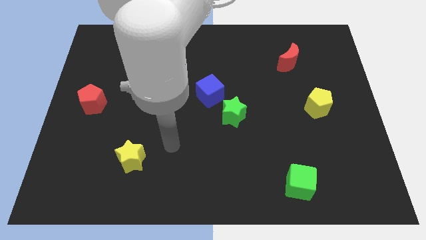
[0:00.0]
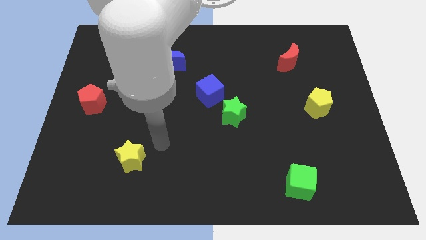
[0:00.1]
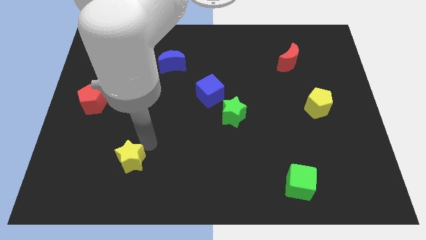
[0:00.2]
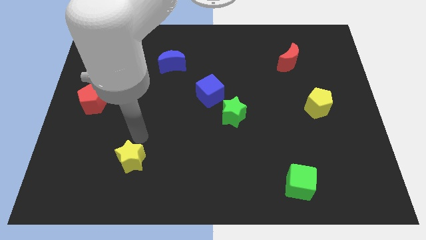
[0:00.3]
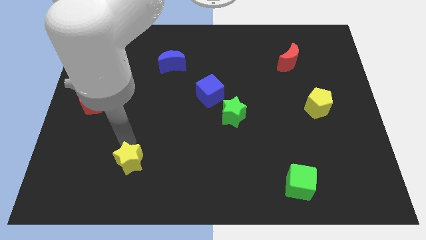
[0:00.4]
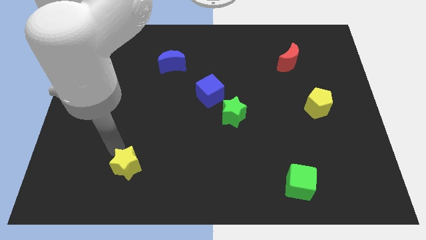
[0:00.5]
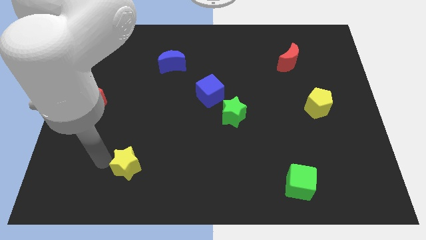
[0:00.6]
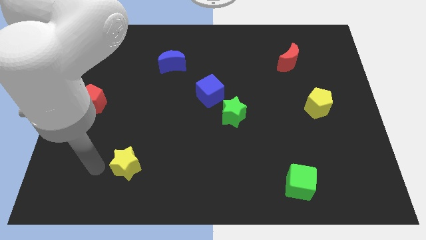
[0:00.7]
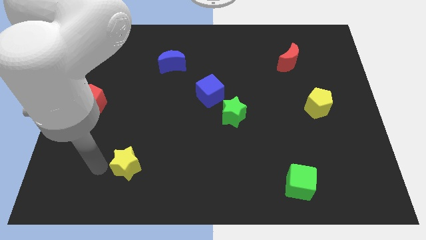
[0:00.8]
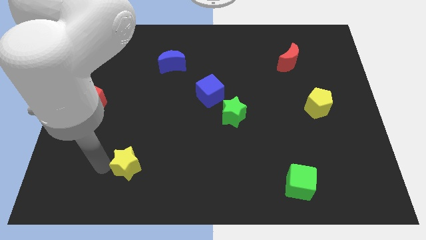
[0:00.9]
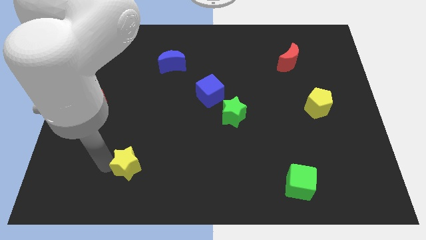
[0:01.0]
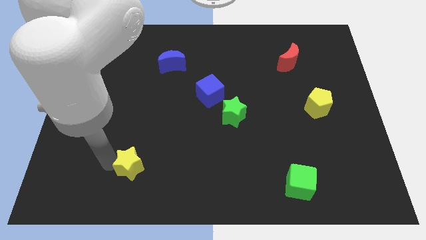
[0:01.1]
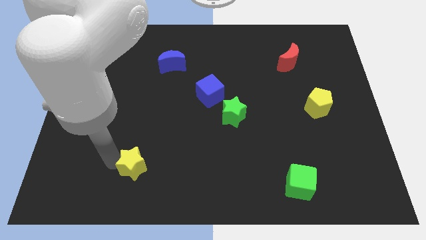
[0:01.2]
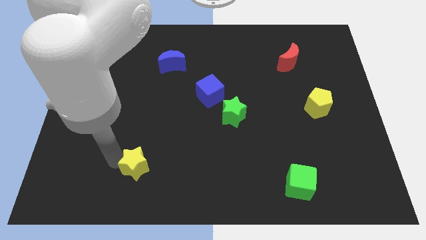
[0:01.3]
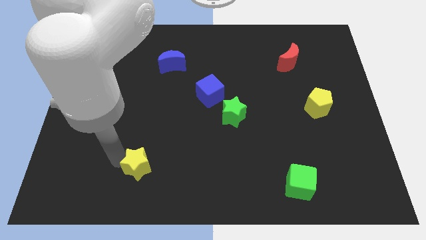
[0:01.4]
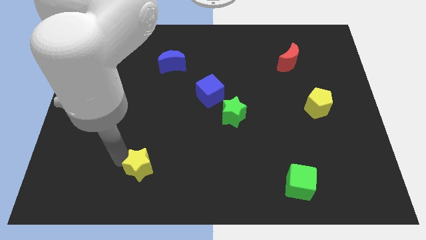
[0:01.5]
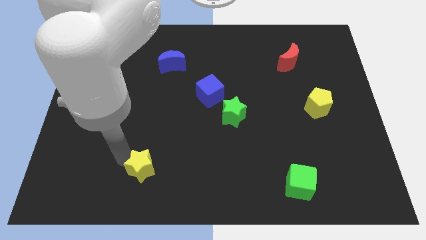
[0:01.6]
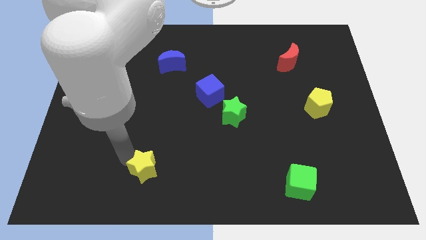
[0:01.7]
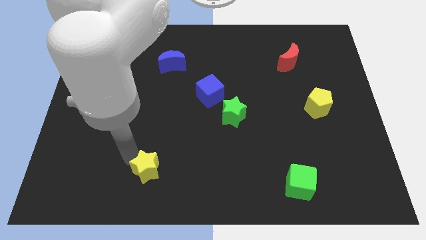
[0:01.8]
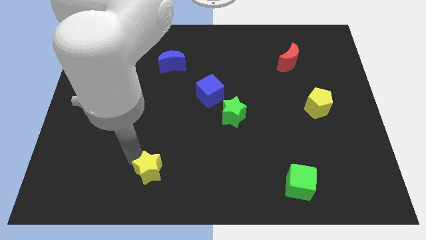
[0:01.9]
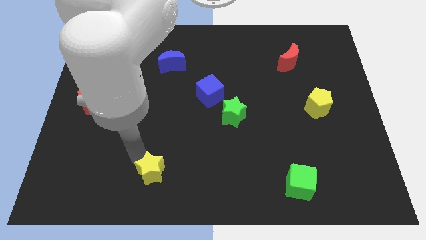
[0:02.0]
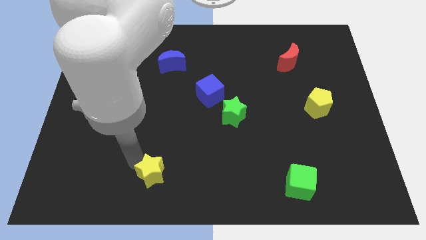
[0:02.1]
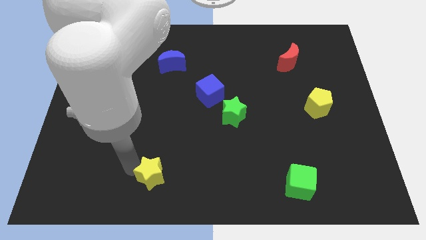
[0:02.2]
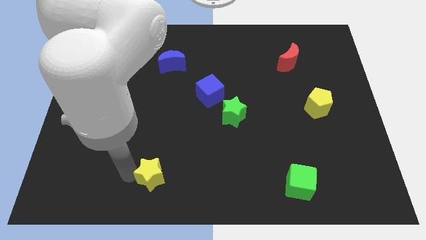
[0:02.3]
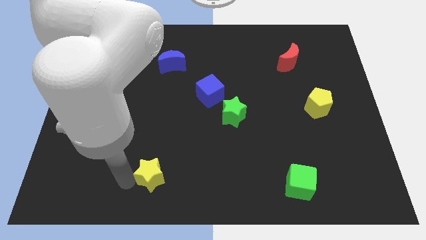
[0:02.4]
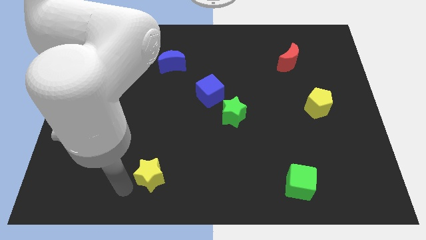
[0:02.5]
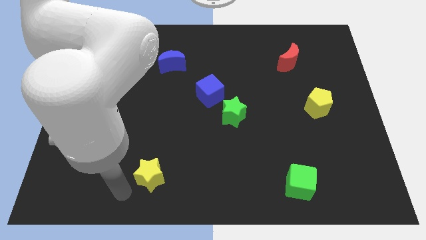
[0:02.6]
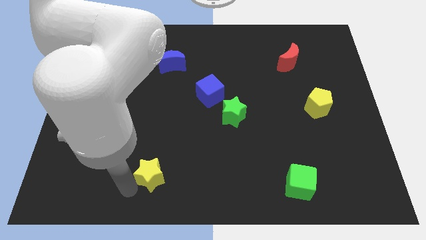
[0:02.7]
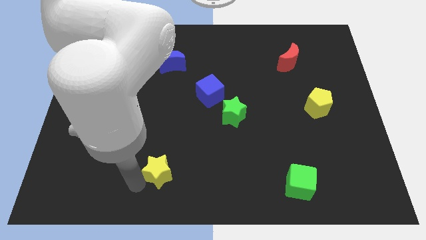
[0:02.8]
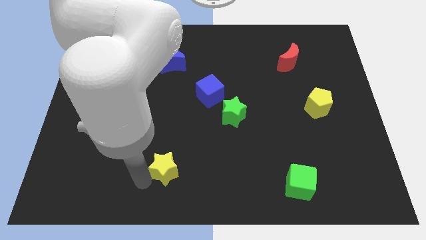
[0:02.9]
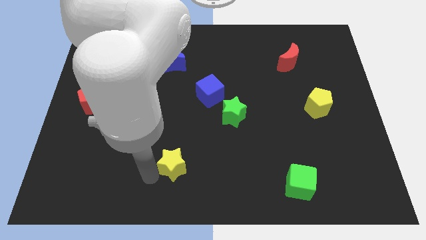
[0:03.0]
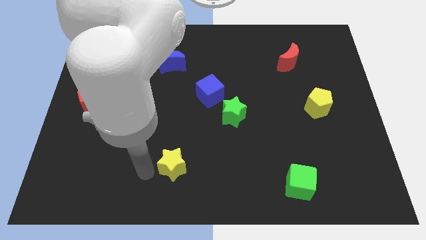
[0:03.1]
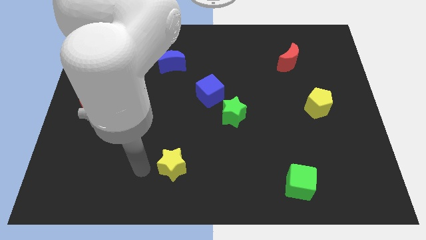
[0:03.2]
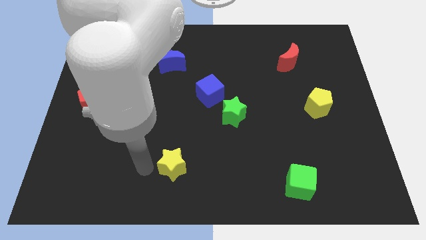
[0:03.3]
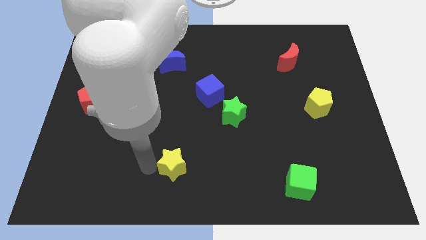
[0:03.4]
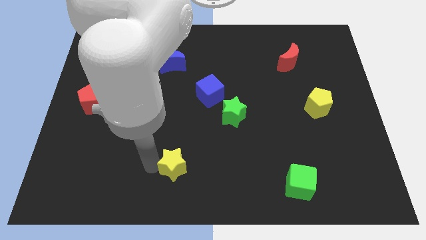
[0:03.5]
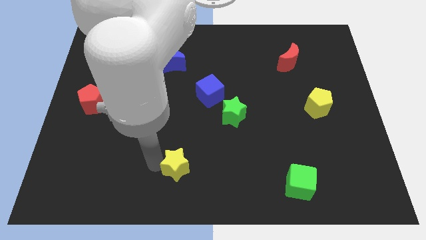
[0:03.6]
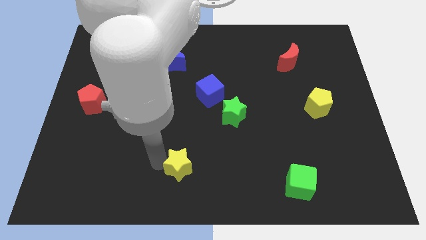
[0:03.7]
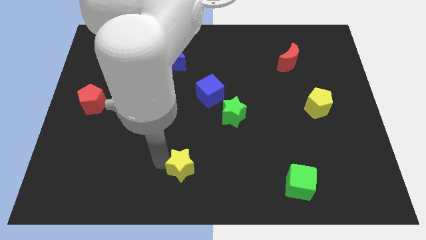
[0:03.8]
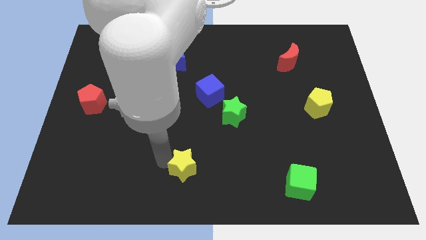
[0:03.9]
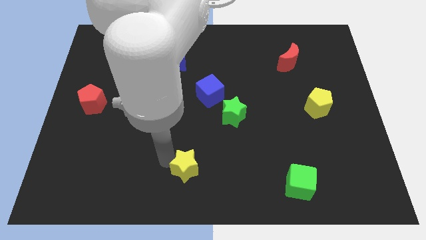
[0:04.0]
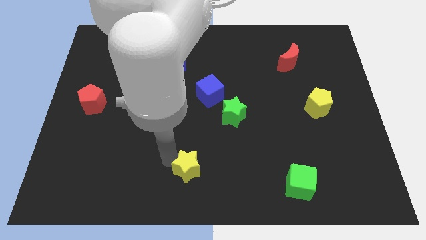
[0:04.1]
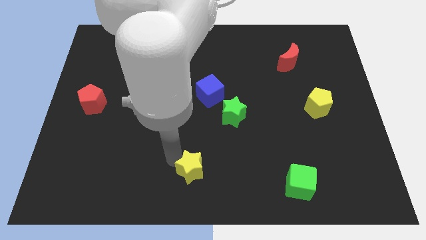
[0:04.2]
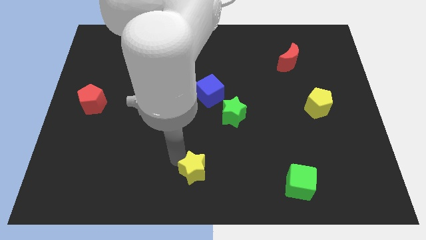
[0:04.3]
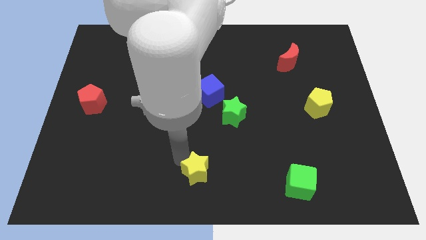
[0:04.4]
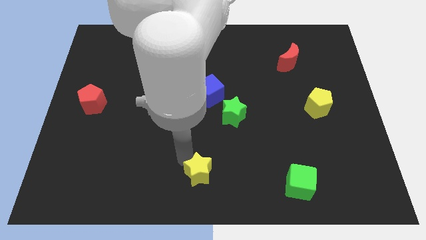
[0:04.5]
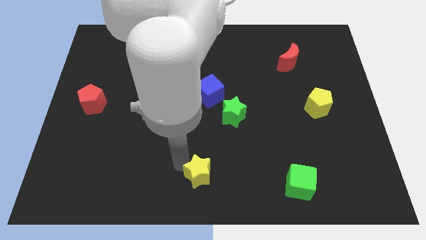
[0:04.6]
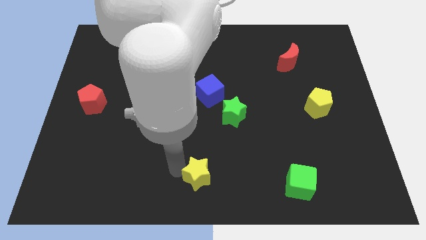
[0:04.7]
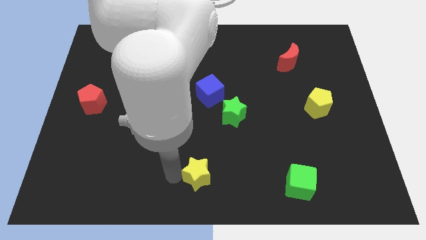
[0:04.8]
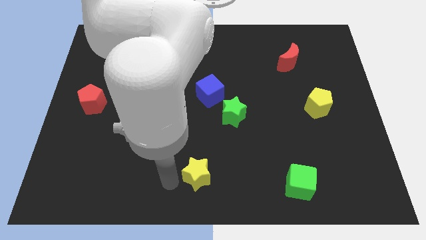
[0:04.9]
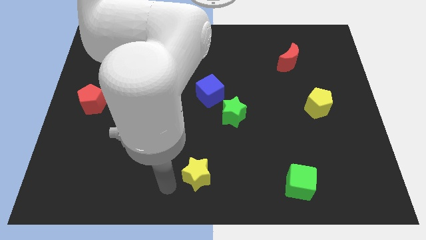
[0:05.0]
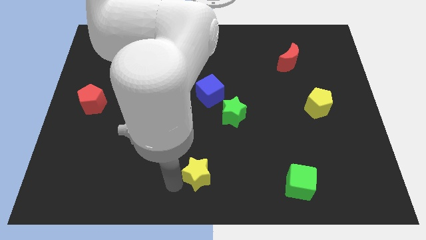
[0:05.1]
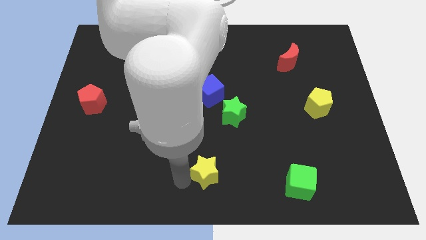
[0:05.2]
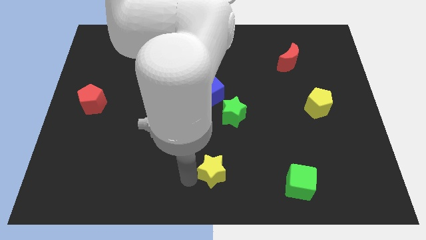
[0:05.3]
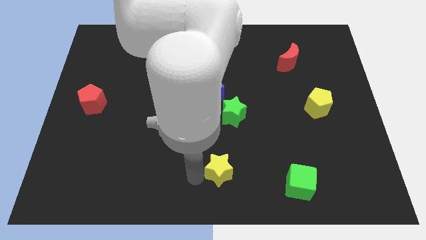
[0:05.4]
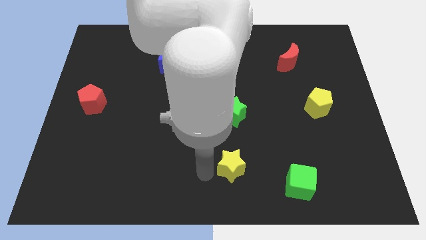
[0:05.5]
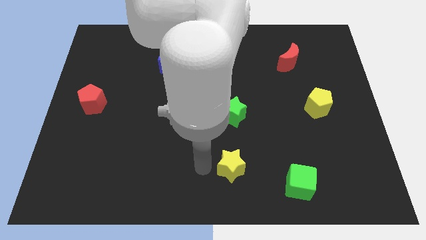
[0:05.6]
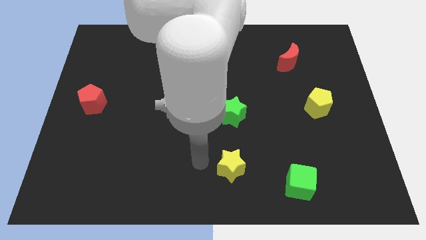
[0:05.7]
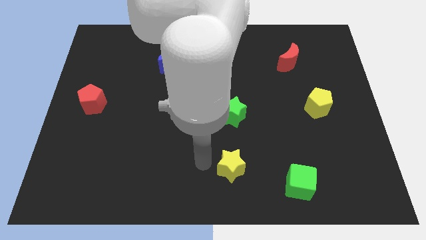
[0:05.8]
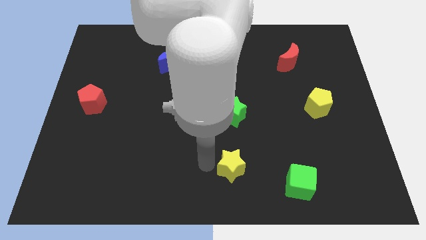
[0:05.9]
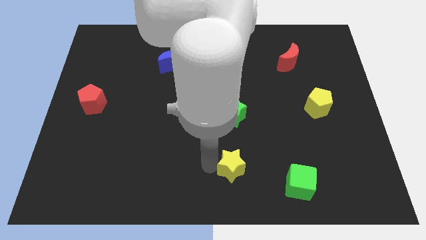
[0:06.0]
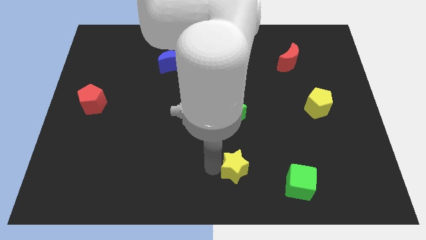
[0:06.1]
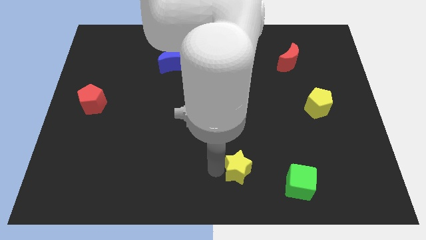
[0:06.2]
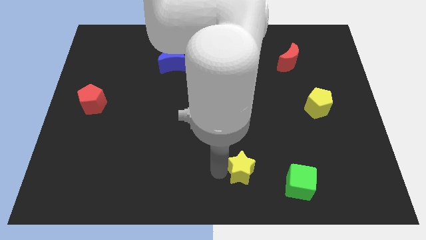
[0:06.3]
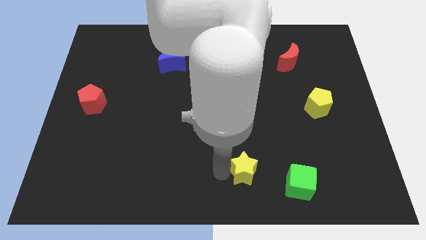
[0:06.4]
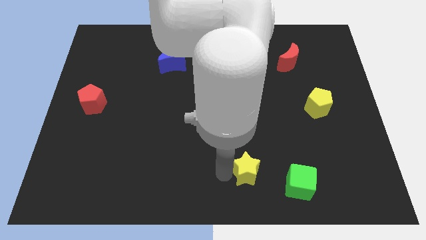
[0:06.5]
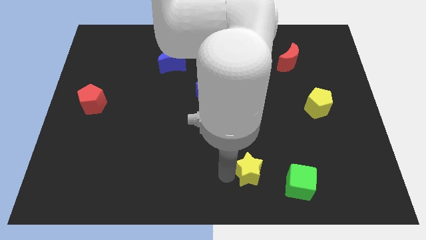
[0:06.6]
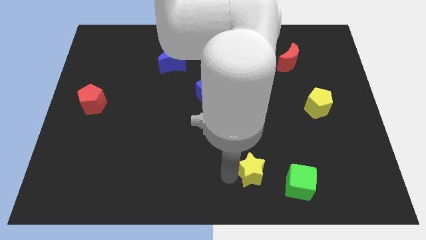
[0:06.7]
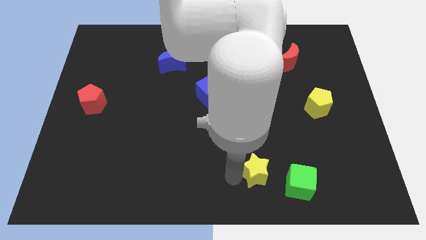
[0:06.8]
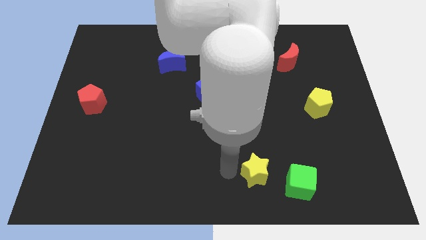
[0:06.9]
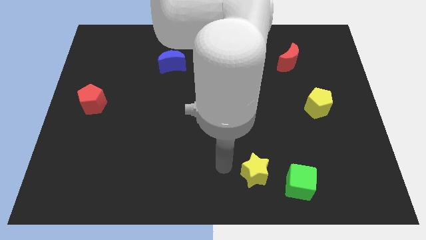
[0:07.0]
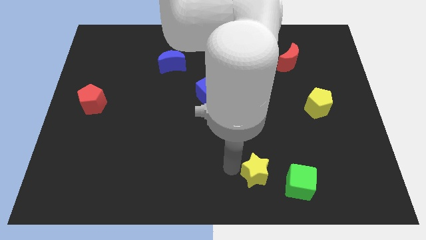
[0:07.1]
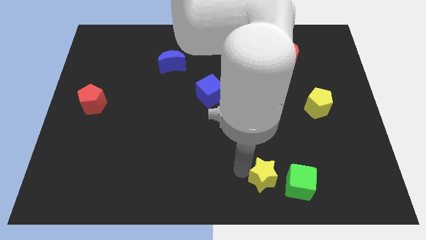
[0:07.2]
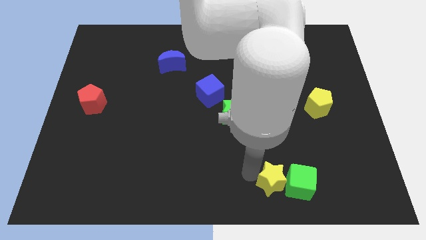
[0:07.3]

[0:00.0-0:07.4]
put the yellow star next to the green cube
